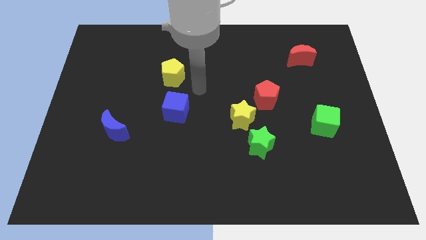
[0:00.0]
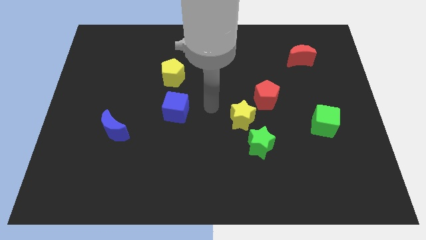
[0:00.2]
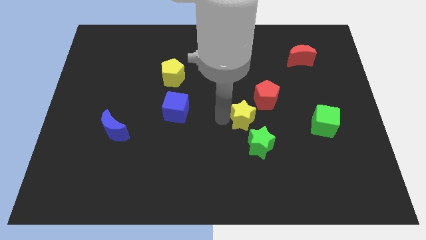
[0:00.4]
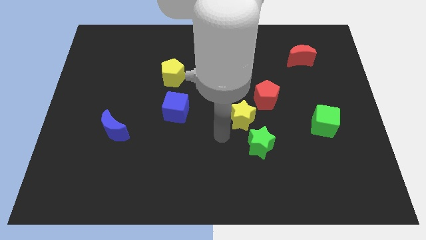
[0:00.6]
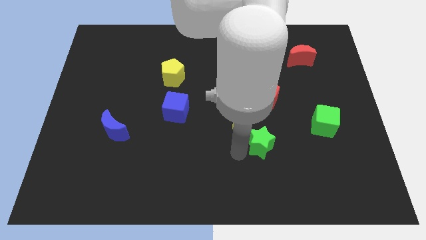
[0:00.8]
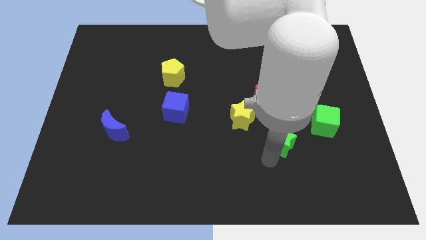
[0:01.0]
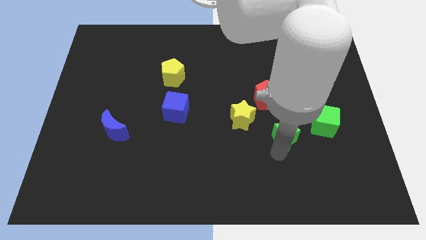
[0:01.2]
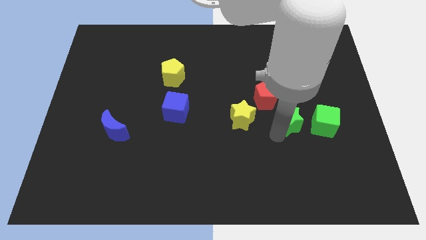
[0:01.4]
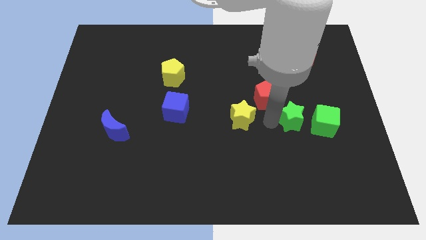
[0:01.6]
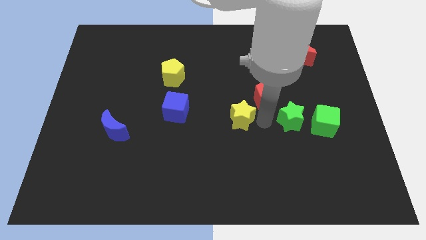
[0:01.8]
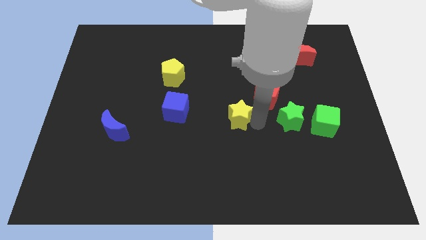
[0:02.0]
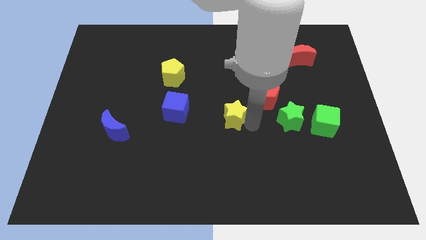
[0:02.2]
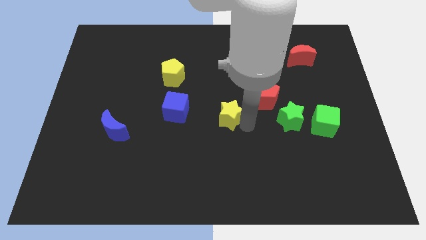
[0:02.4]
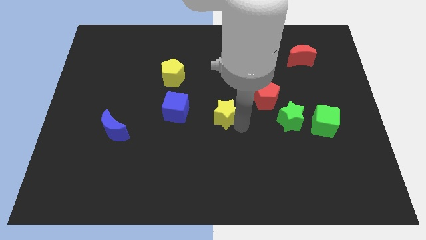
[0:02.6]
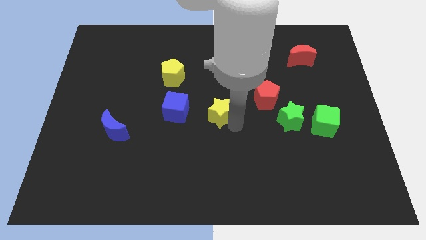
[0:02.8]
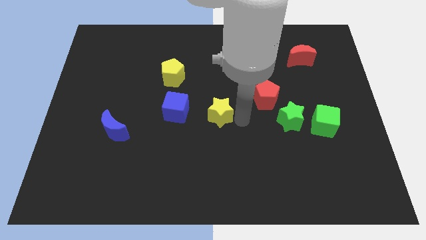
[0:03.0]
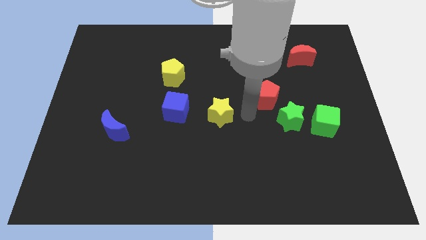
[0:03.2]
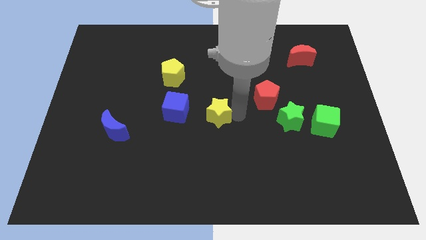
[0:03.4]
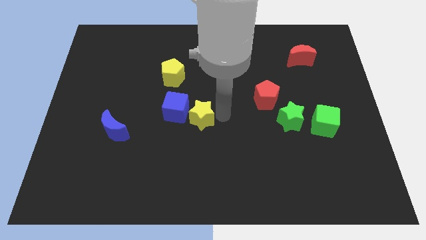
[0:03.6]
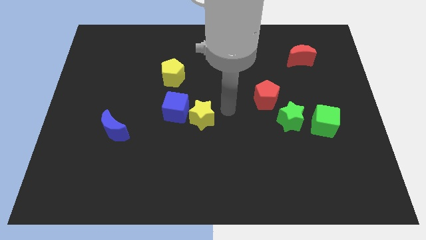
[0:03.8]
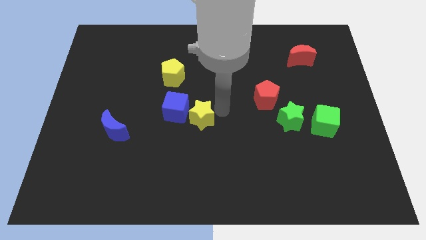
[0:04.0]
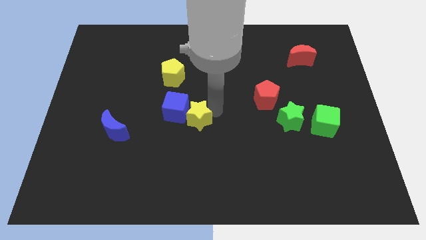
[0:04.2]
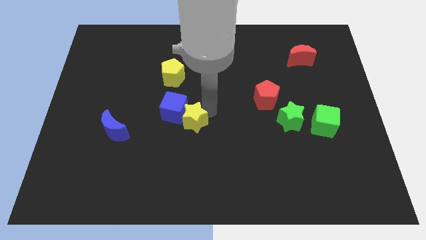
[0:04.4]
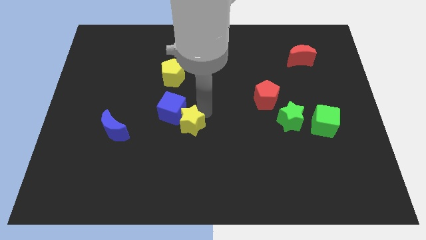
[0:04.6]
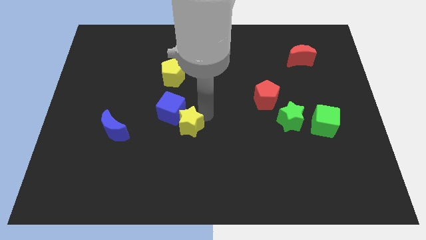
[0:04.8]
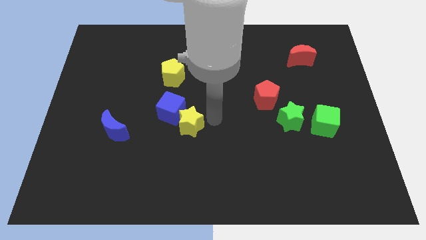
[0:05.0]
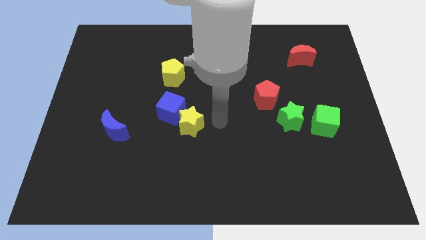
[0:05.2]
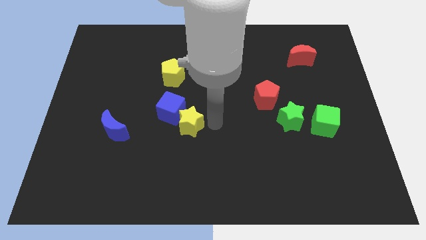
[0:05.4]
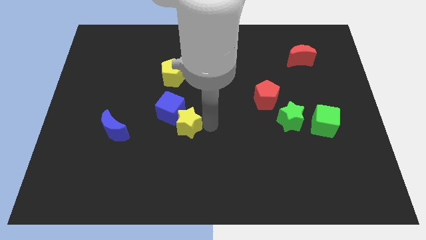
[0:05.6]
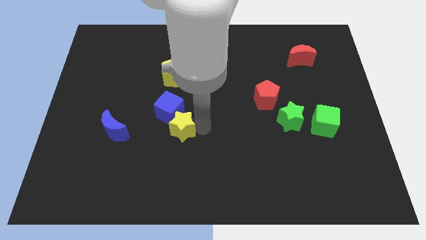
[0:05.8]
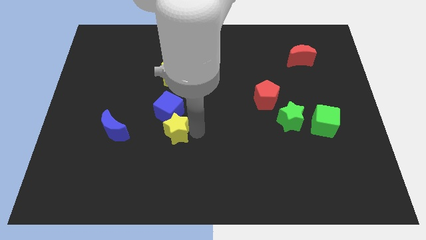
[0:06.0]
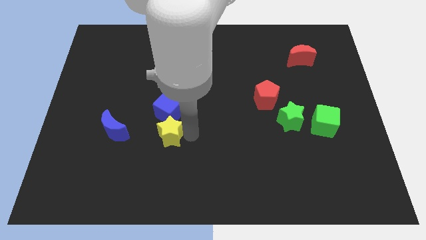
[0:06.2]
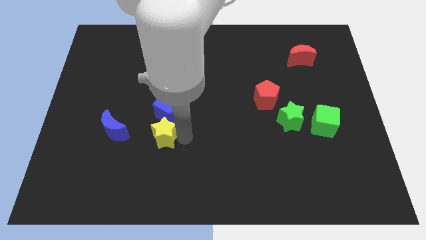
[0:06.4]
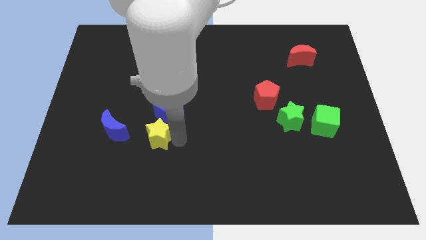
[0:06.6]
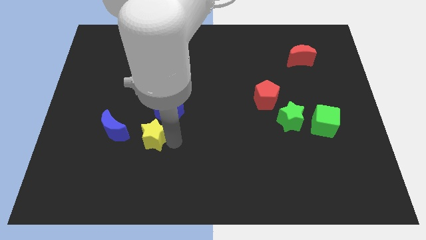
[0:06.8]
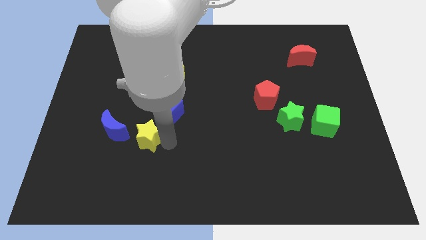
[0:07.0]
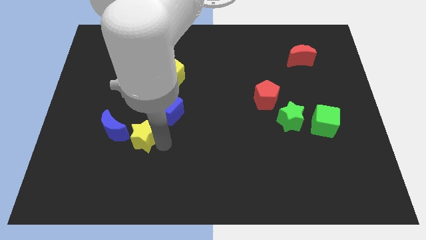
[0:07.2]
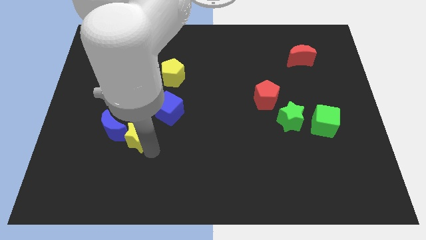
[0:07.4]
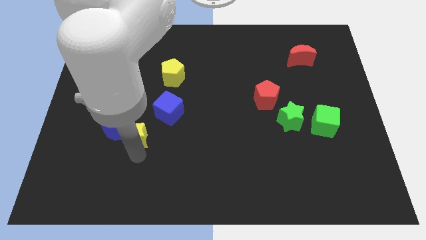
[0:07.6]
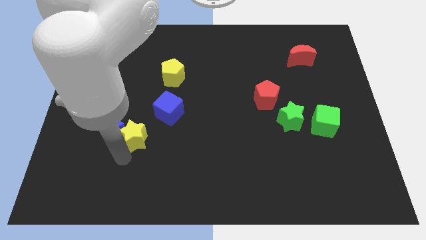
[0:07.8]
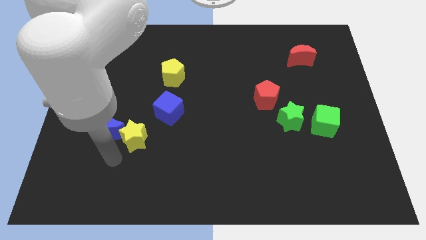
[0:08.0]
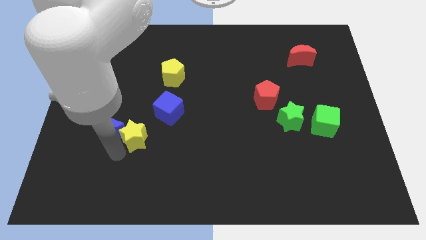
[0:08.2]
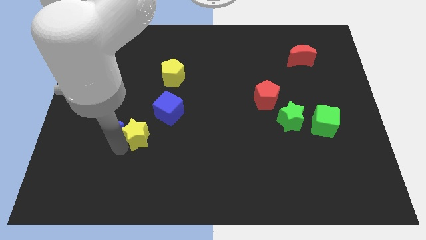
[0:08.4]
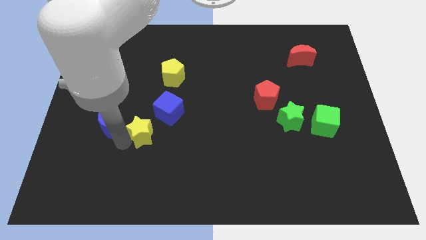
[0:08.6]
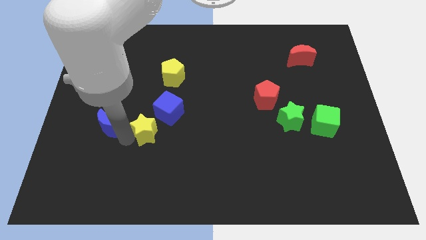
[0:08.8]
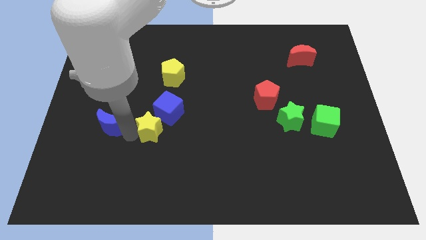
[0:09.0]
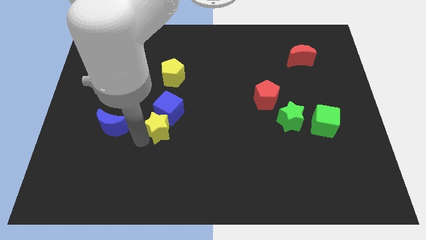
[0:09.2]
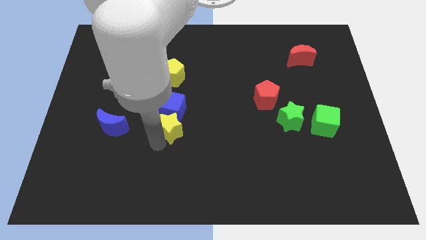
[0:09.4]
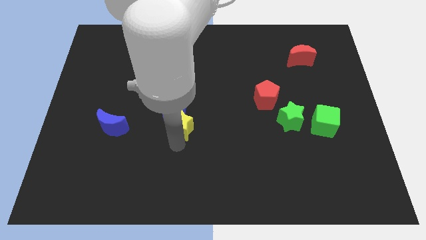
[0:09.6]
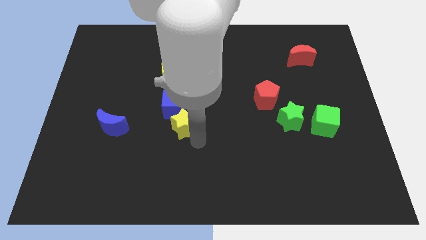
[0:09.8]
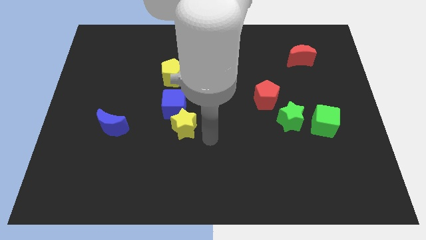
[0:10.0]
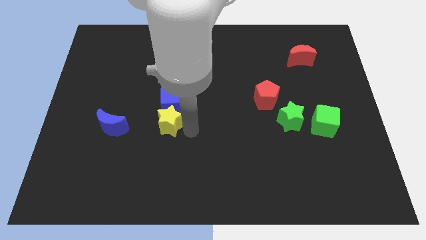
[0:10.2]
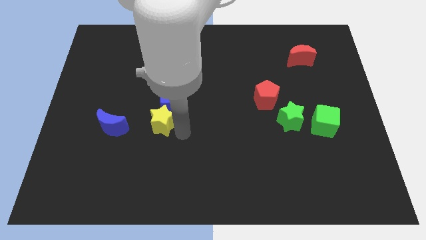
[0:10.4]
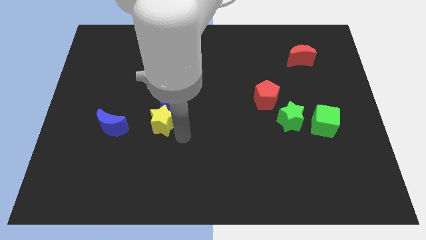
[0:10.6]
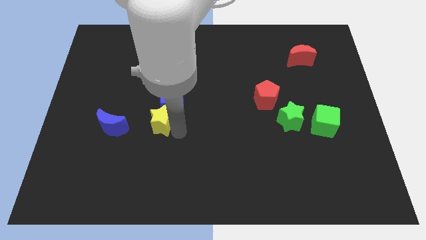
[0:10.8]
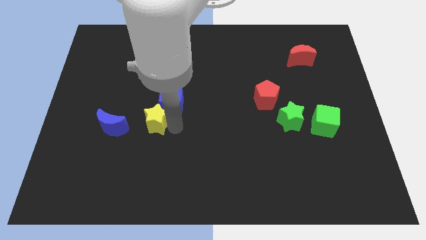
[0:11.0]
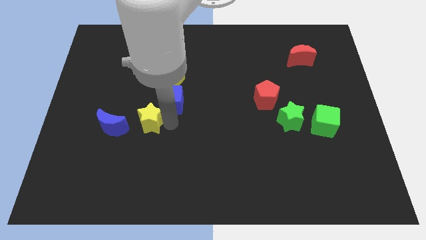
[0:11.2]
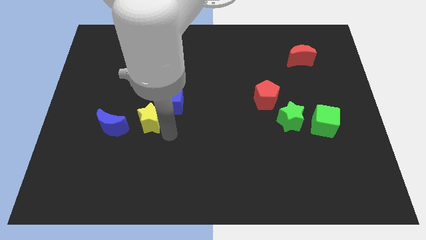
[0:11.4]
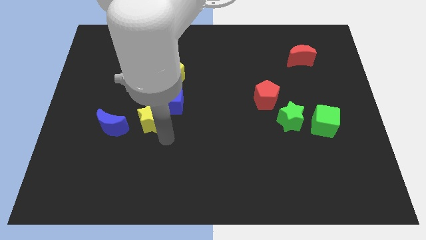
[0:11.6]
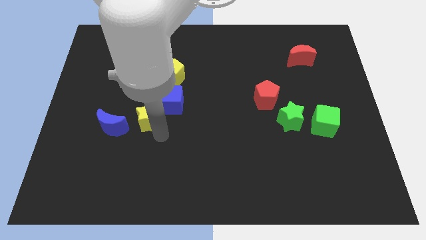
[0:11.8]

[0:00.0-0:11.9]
put the yellow star diagonally up and to the right of the blue moon

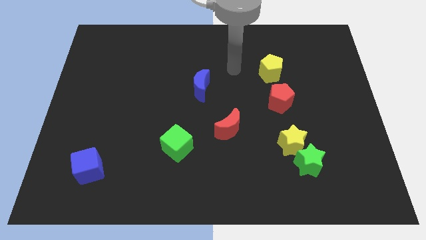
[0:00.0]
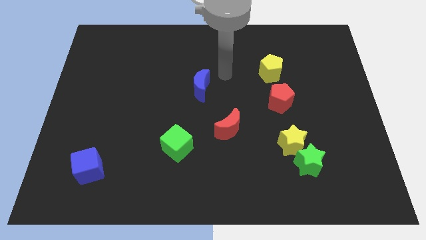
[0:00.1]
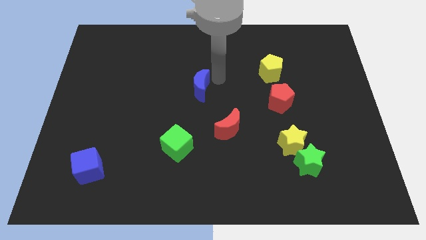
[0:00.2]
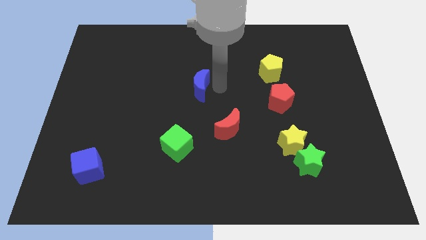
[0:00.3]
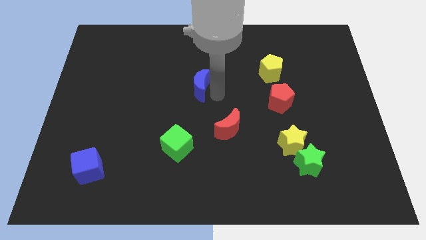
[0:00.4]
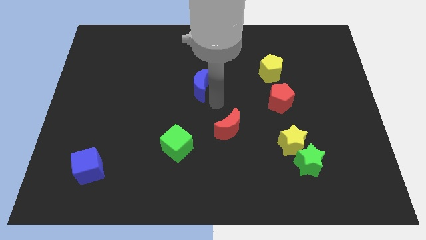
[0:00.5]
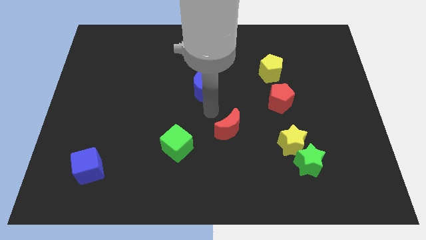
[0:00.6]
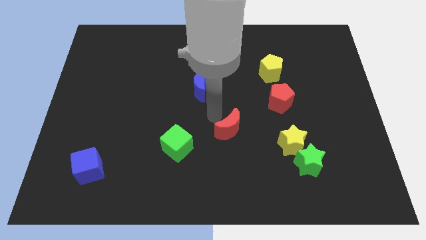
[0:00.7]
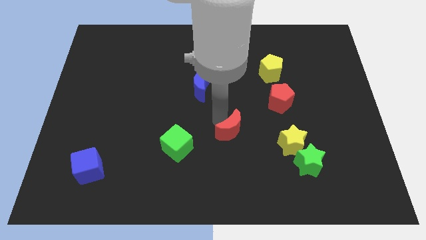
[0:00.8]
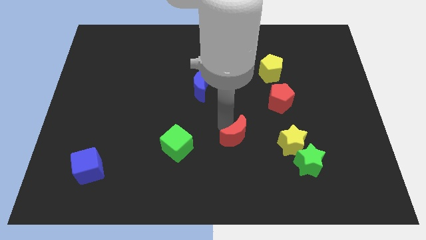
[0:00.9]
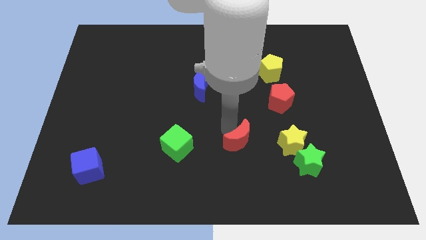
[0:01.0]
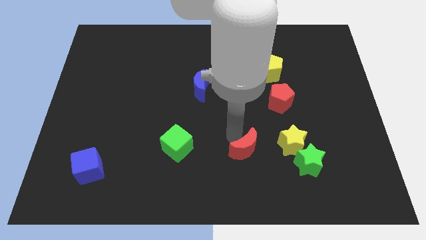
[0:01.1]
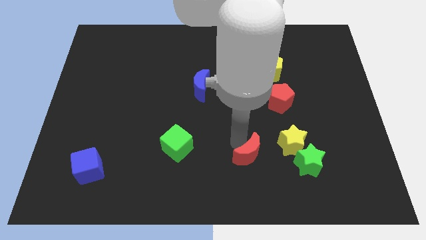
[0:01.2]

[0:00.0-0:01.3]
push the red moon diagonally down and to the left of the yellow star

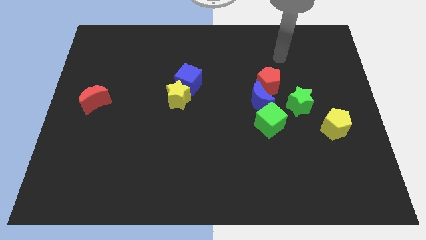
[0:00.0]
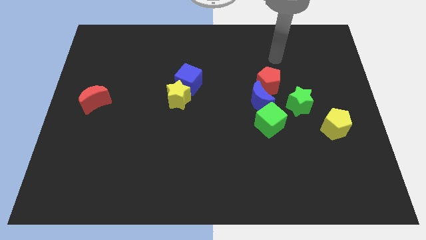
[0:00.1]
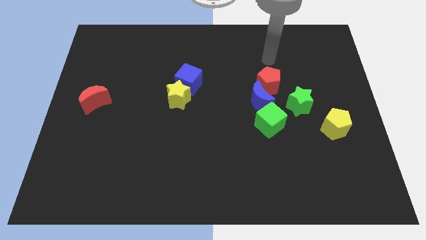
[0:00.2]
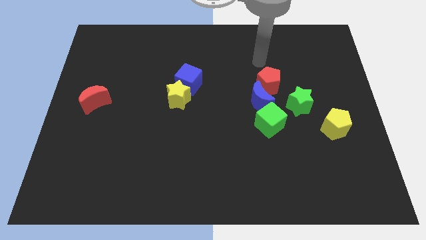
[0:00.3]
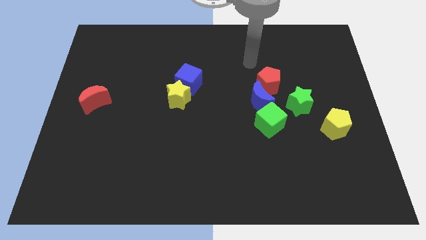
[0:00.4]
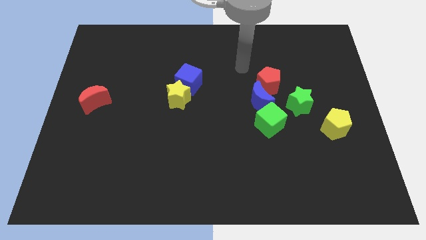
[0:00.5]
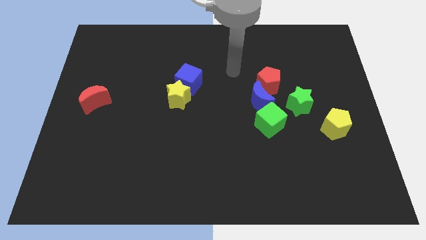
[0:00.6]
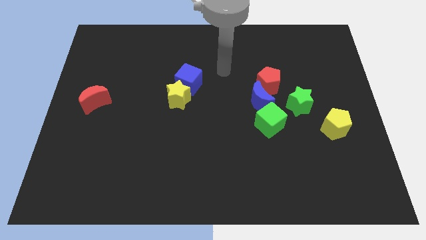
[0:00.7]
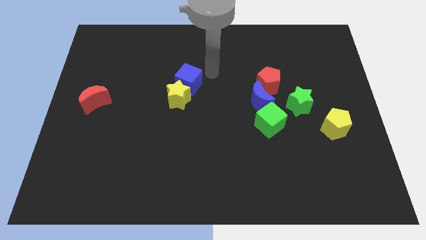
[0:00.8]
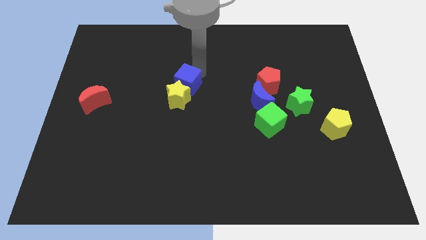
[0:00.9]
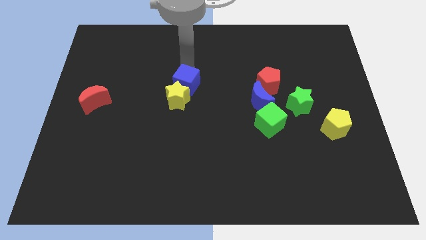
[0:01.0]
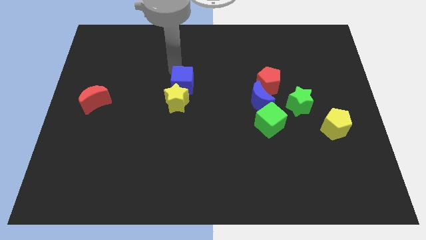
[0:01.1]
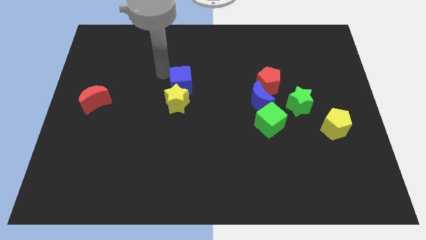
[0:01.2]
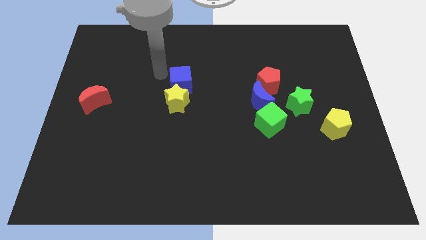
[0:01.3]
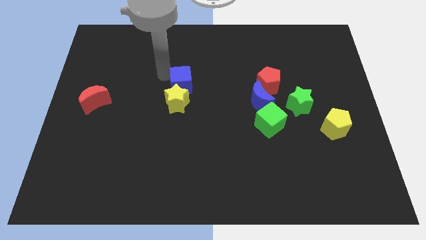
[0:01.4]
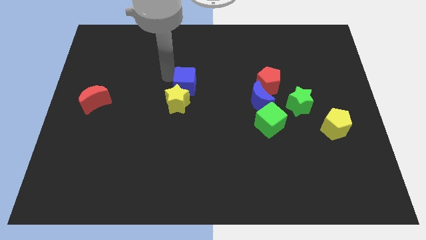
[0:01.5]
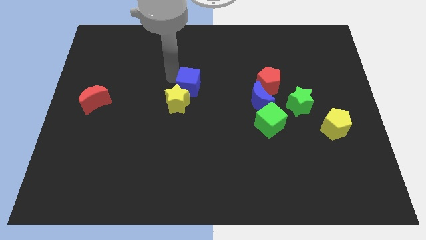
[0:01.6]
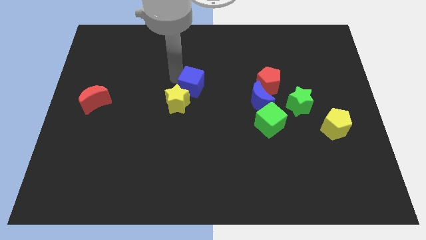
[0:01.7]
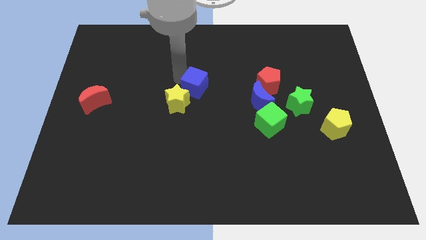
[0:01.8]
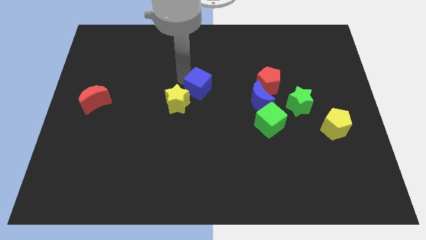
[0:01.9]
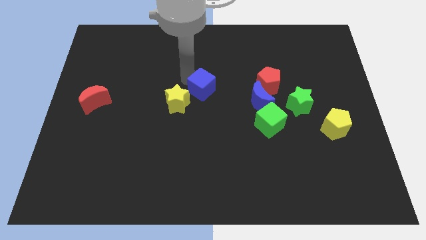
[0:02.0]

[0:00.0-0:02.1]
slide the blue cube just right of the yellow star
